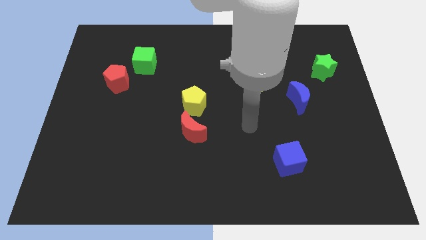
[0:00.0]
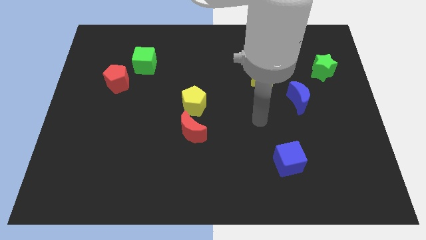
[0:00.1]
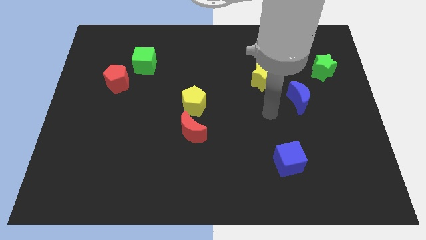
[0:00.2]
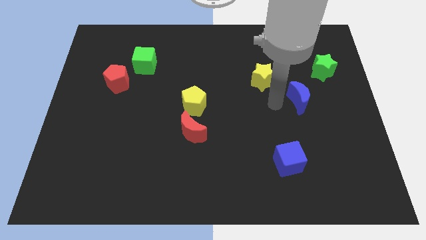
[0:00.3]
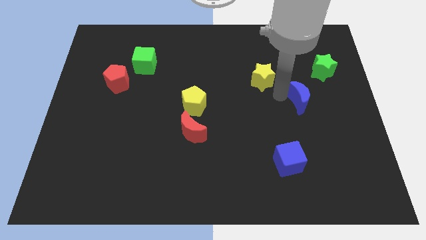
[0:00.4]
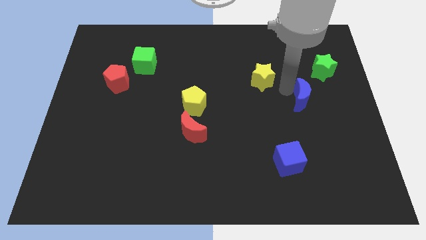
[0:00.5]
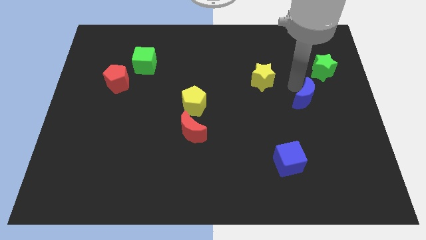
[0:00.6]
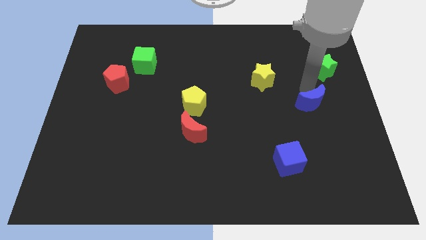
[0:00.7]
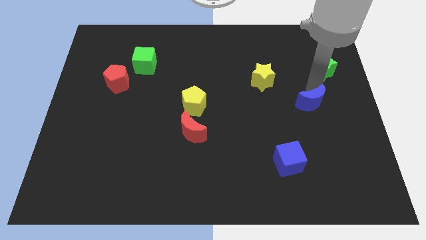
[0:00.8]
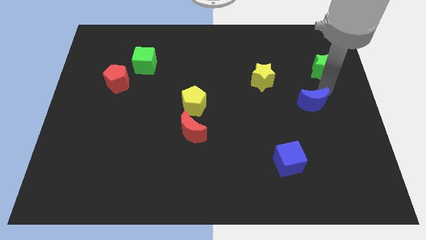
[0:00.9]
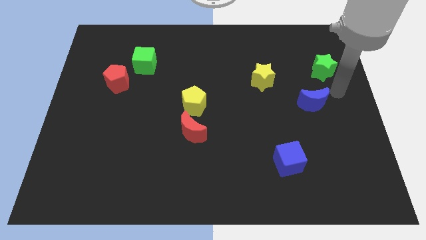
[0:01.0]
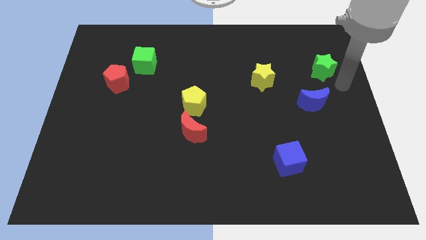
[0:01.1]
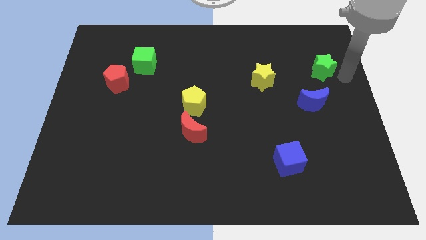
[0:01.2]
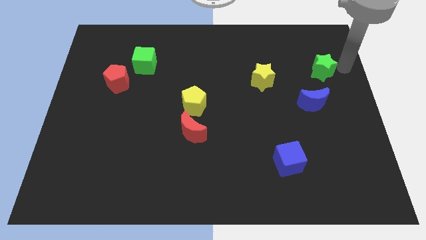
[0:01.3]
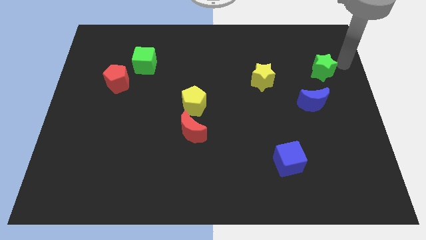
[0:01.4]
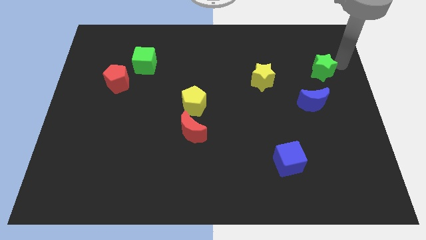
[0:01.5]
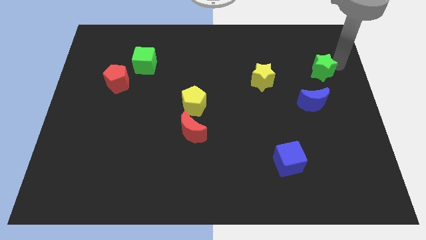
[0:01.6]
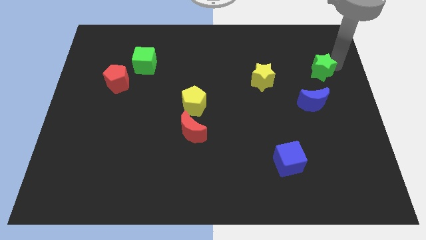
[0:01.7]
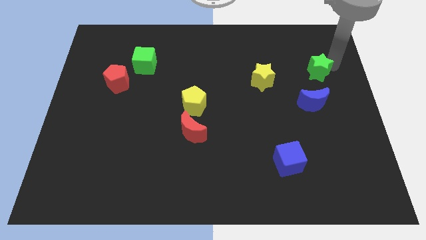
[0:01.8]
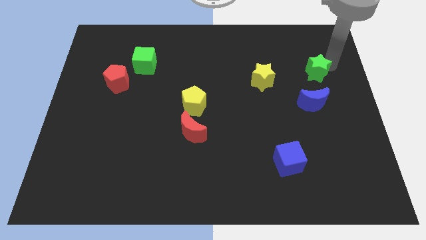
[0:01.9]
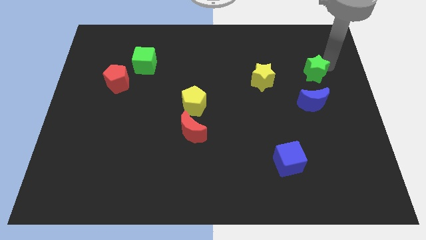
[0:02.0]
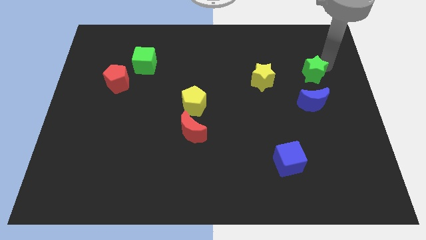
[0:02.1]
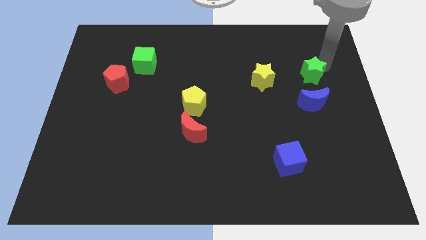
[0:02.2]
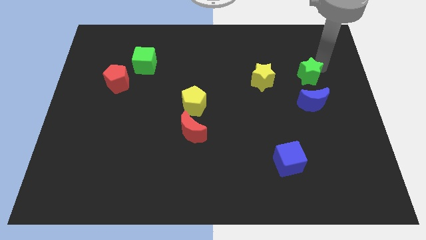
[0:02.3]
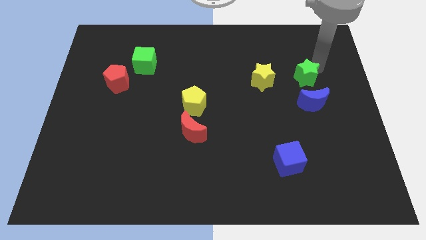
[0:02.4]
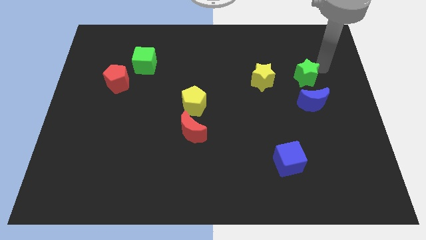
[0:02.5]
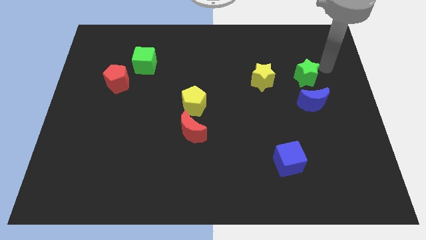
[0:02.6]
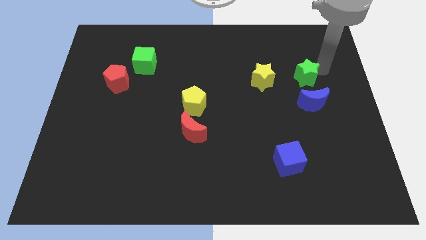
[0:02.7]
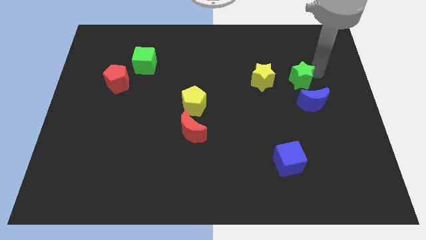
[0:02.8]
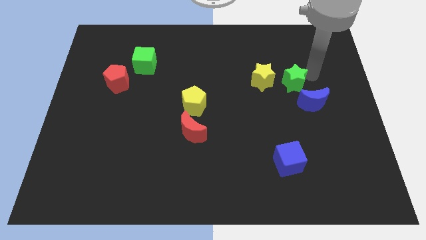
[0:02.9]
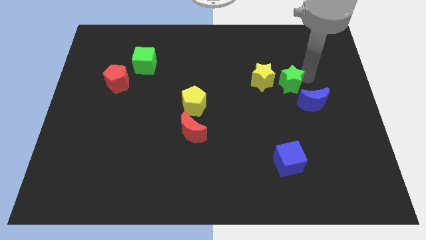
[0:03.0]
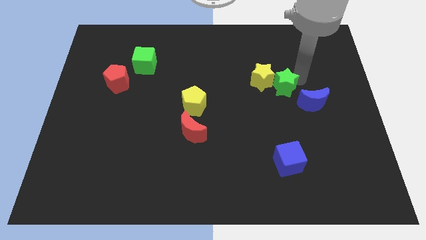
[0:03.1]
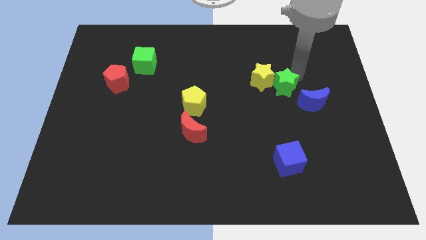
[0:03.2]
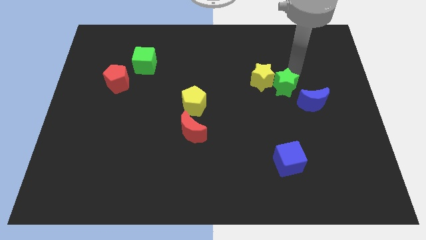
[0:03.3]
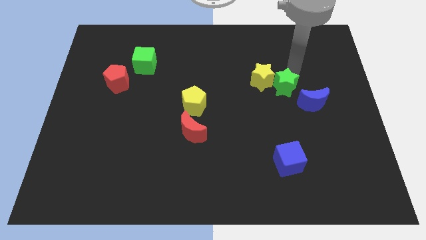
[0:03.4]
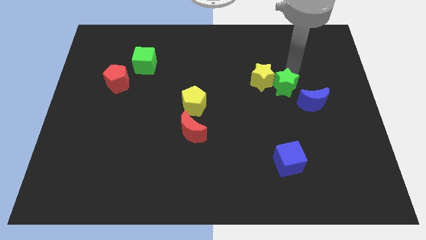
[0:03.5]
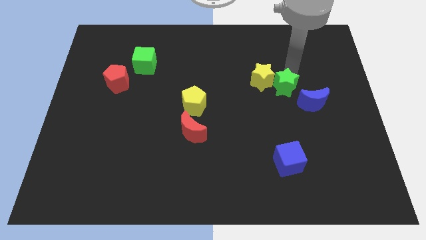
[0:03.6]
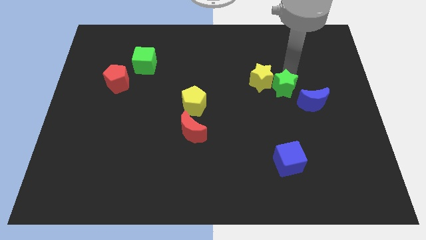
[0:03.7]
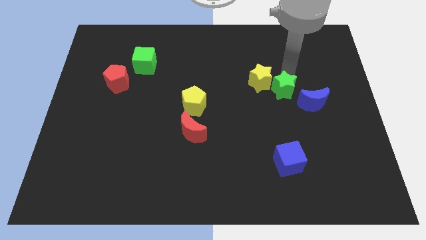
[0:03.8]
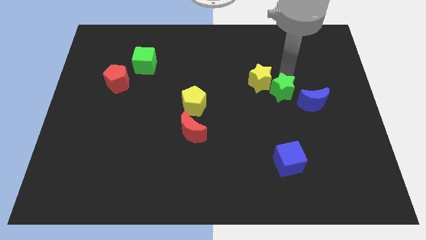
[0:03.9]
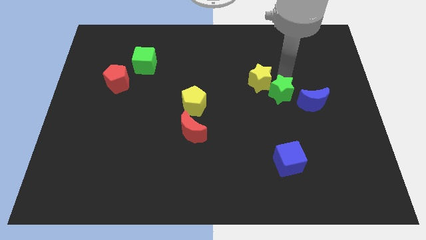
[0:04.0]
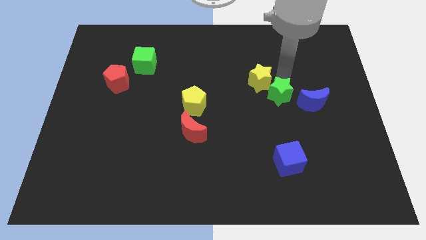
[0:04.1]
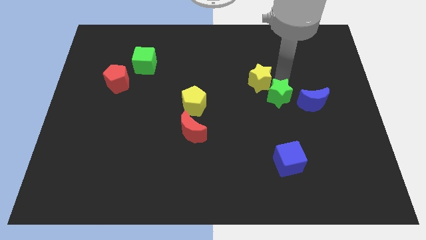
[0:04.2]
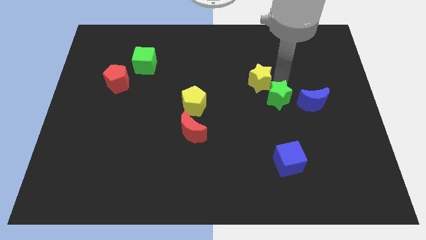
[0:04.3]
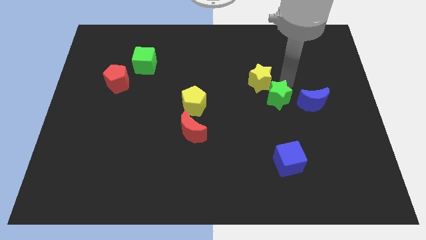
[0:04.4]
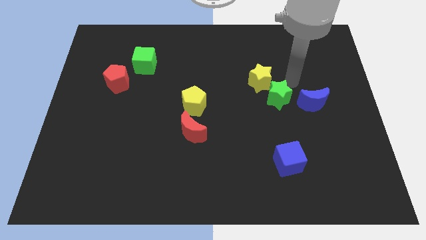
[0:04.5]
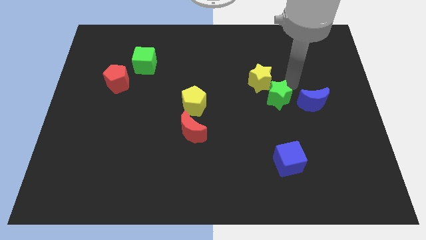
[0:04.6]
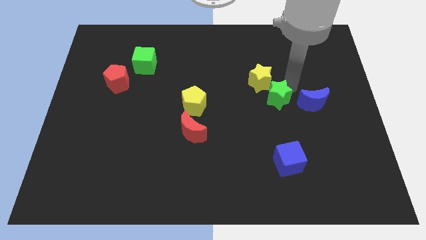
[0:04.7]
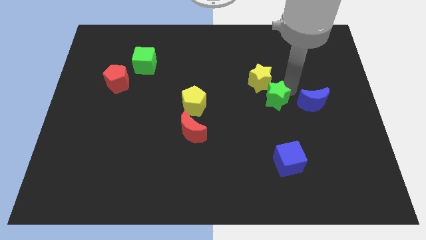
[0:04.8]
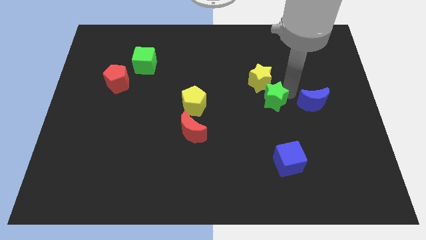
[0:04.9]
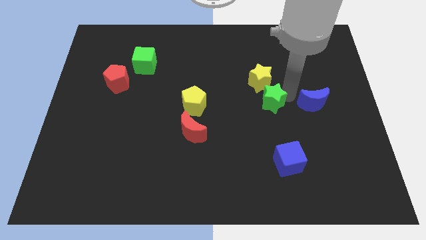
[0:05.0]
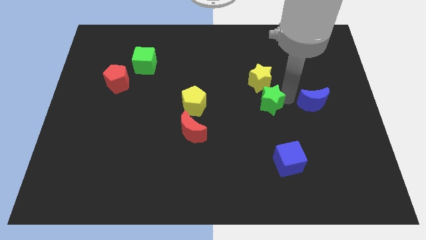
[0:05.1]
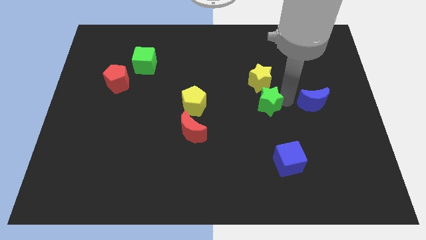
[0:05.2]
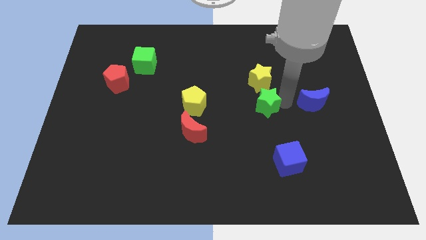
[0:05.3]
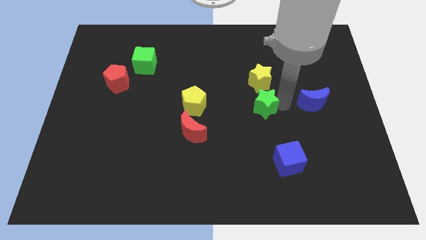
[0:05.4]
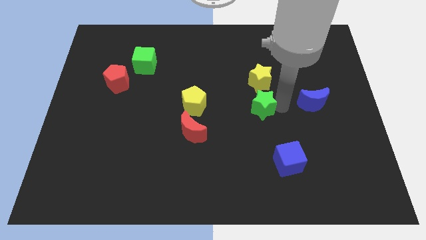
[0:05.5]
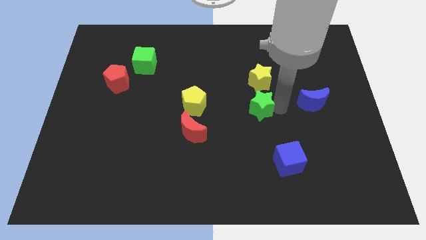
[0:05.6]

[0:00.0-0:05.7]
push the green star downwards and to the left diagonally

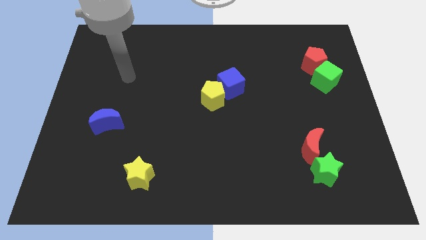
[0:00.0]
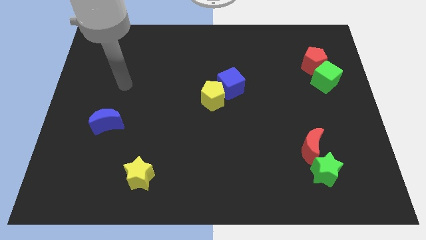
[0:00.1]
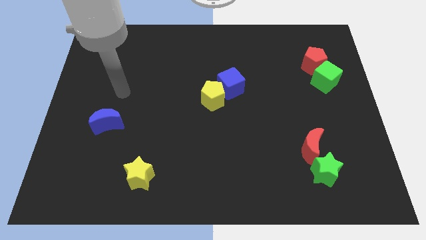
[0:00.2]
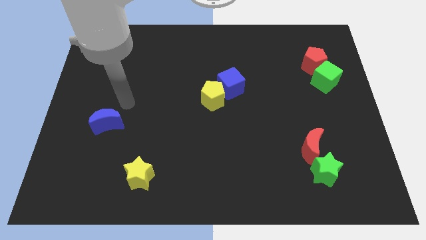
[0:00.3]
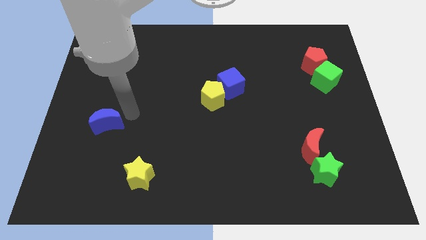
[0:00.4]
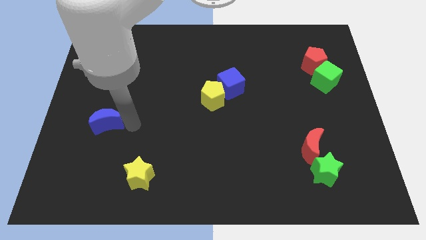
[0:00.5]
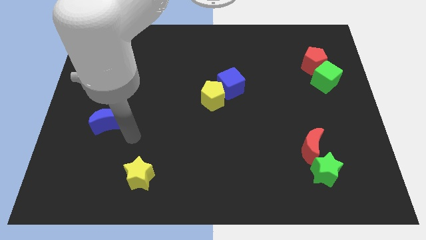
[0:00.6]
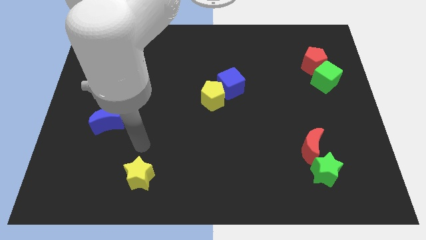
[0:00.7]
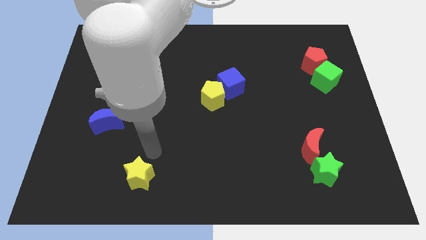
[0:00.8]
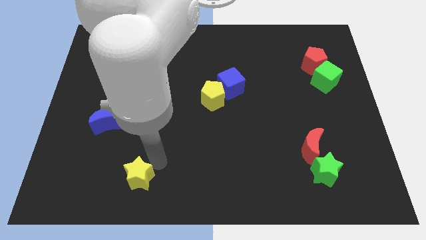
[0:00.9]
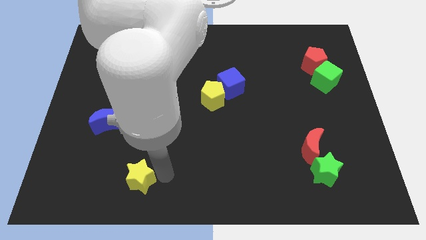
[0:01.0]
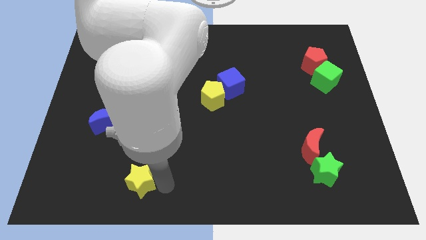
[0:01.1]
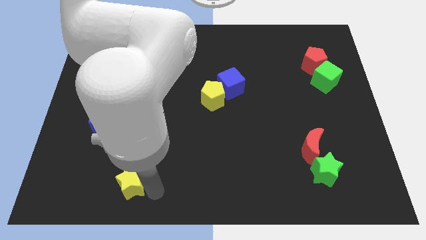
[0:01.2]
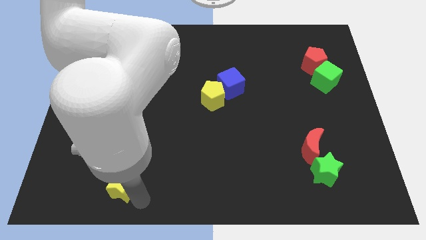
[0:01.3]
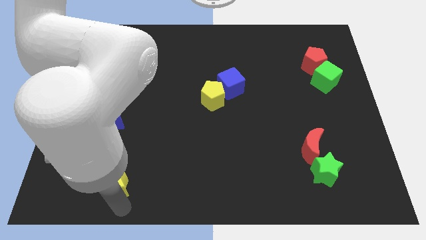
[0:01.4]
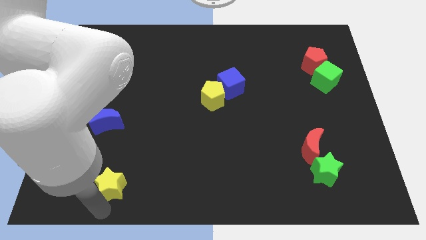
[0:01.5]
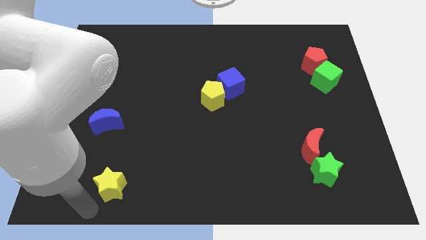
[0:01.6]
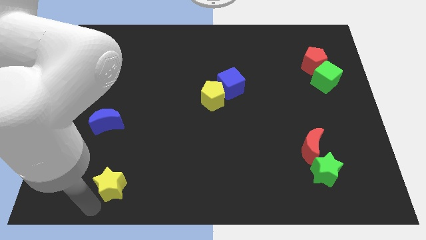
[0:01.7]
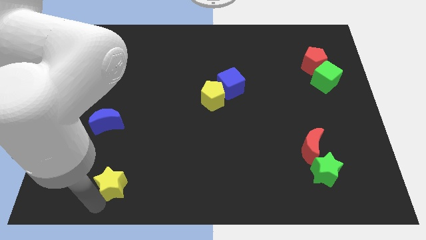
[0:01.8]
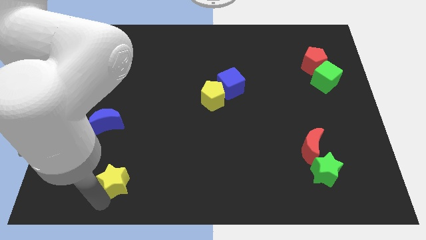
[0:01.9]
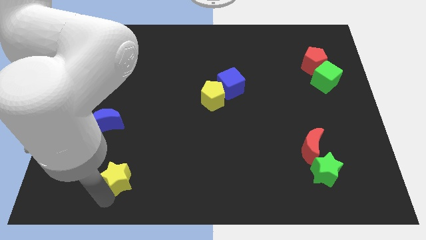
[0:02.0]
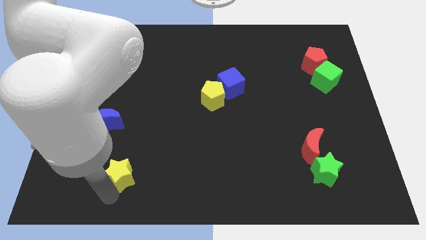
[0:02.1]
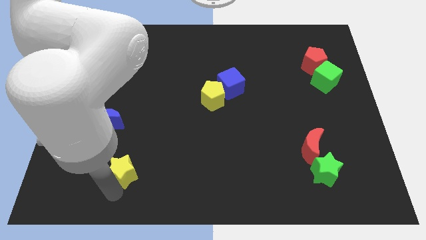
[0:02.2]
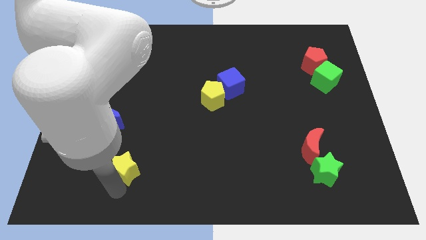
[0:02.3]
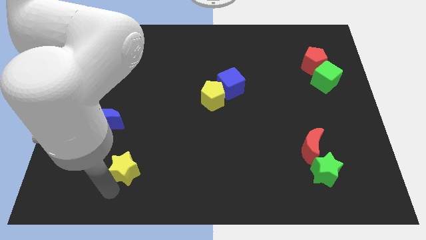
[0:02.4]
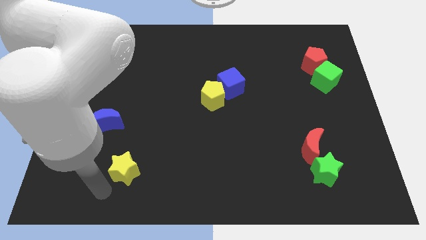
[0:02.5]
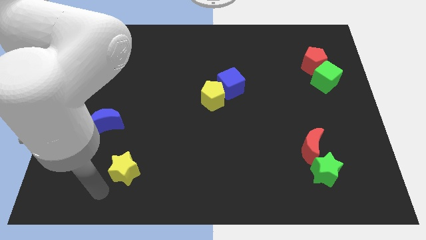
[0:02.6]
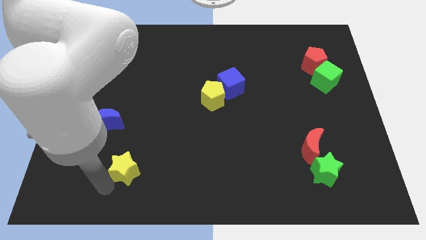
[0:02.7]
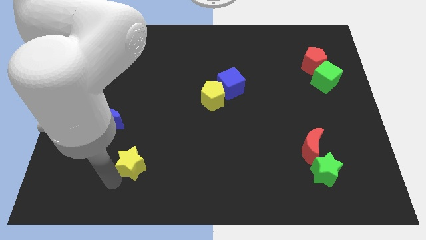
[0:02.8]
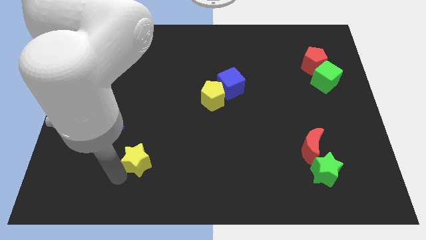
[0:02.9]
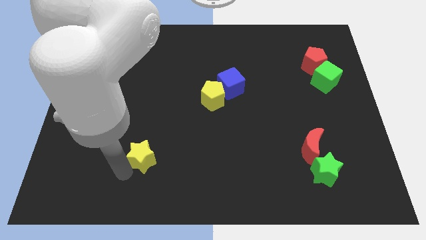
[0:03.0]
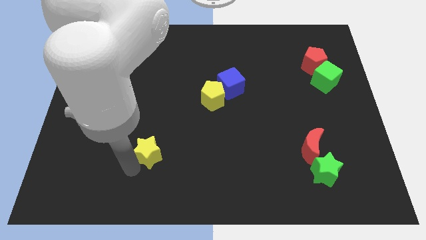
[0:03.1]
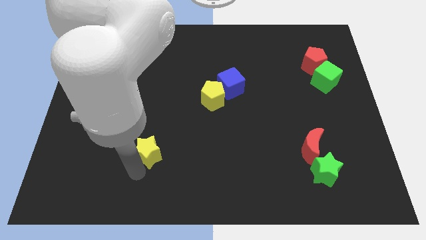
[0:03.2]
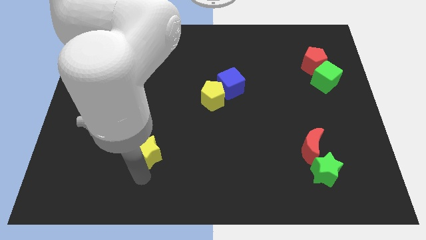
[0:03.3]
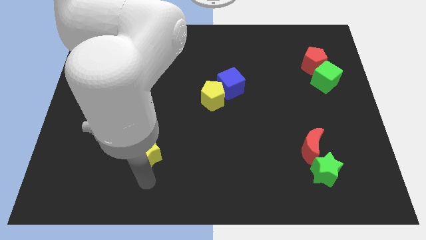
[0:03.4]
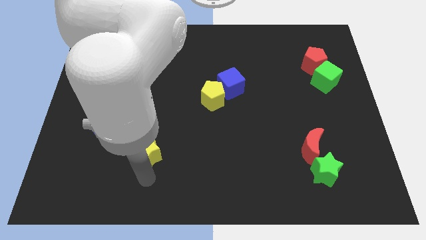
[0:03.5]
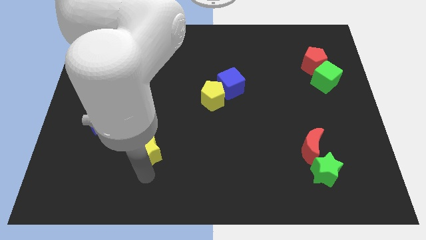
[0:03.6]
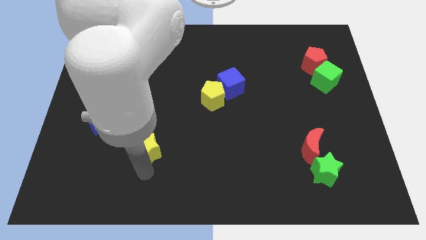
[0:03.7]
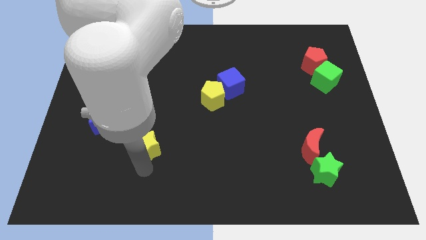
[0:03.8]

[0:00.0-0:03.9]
slide the yellow star a little up
